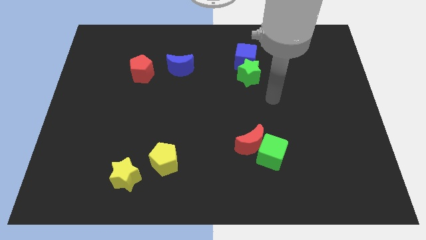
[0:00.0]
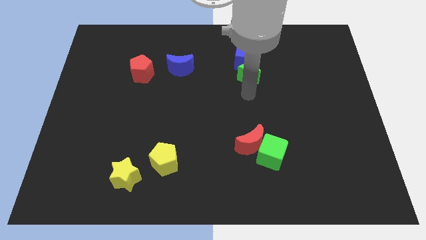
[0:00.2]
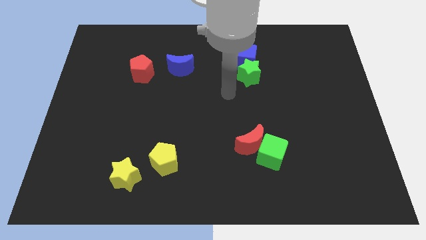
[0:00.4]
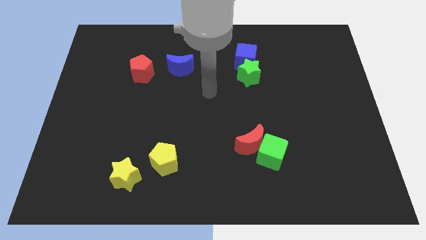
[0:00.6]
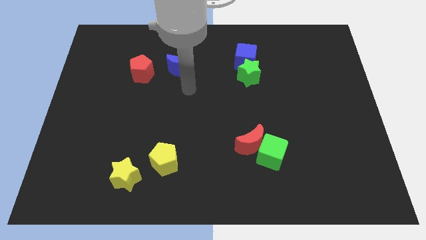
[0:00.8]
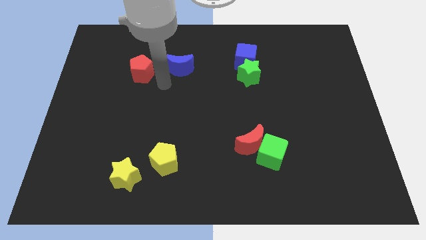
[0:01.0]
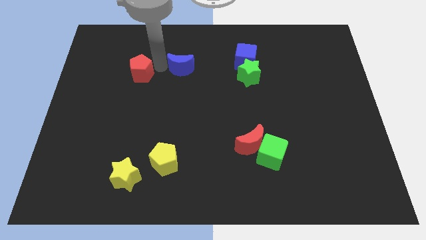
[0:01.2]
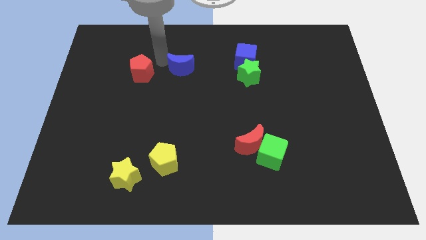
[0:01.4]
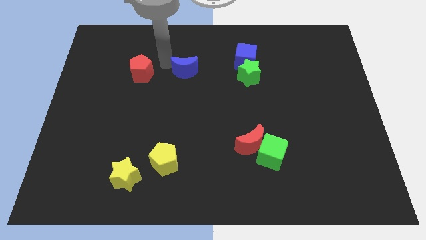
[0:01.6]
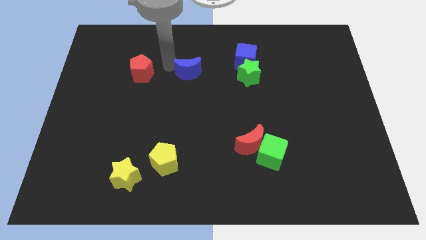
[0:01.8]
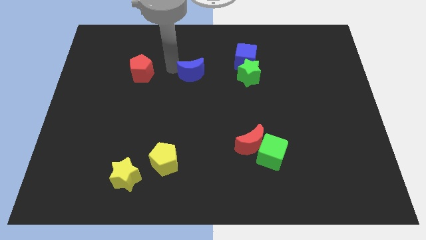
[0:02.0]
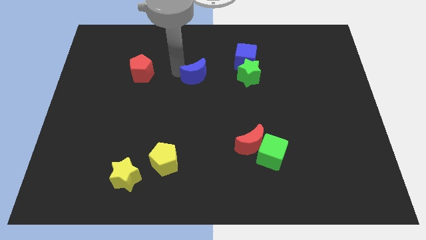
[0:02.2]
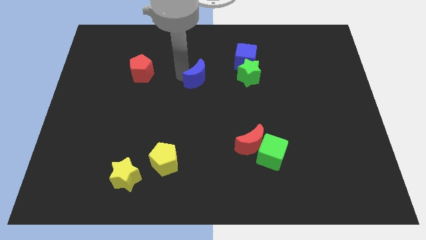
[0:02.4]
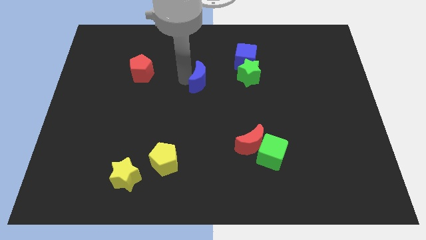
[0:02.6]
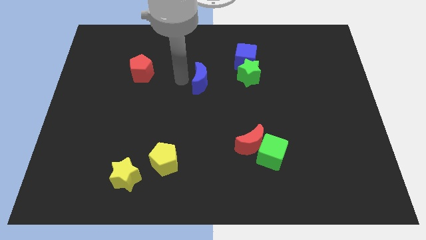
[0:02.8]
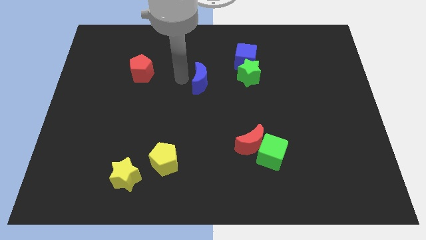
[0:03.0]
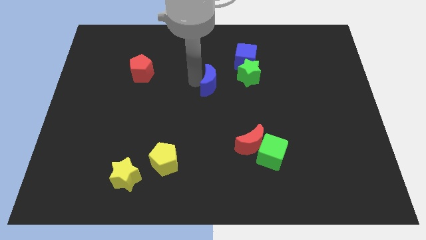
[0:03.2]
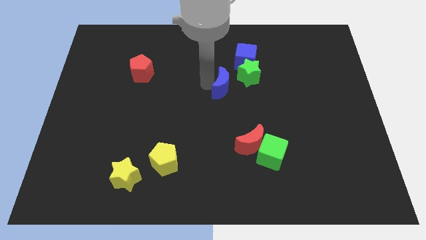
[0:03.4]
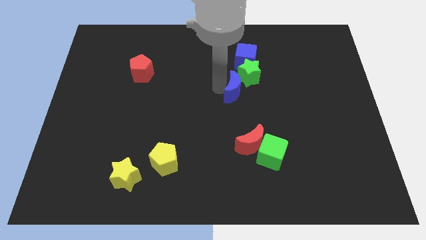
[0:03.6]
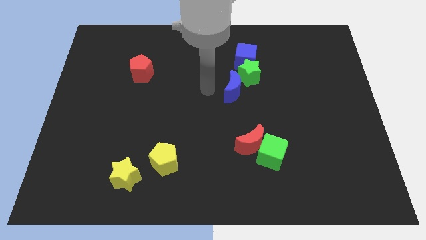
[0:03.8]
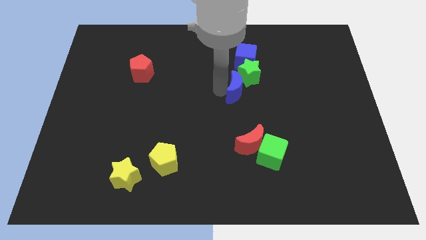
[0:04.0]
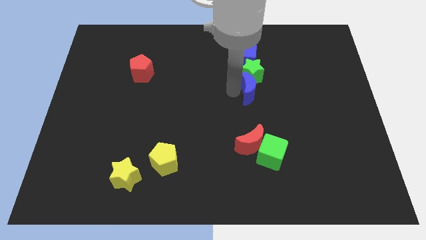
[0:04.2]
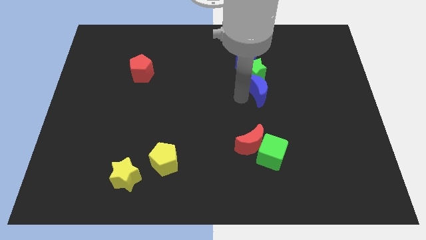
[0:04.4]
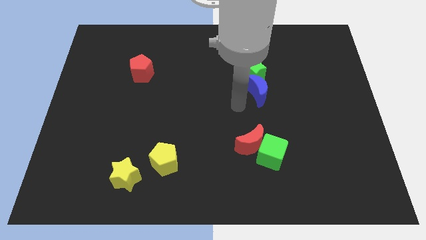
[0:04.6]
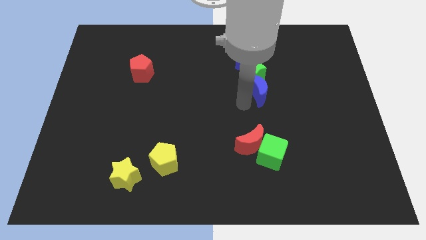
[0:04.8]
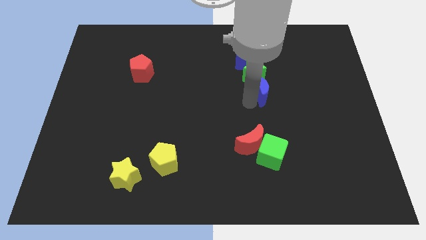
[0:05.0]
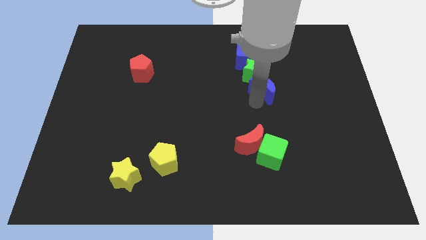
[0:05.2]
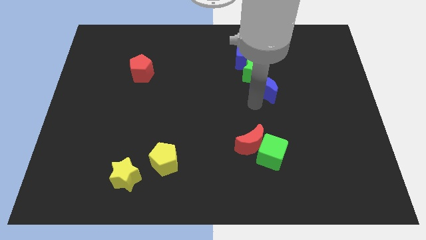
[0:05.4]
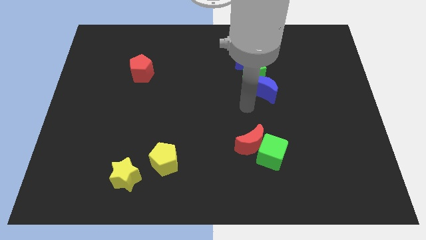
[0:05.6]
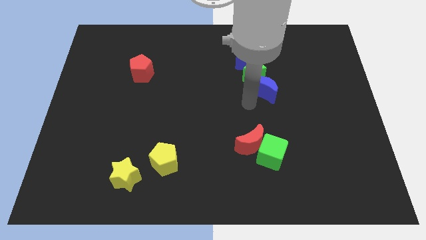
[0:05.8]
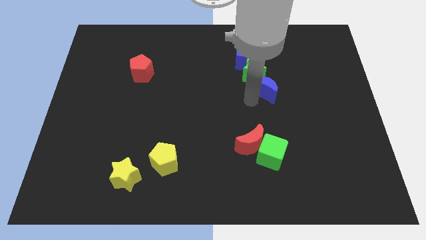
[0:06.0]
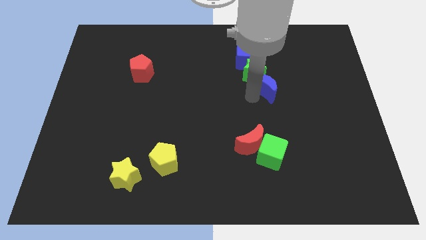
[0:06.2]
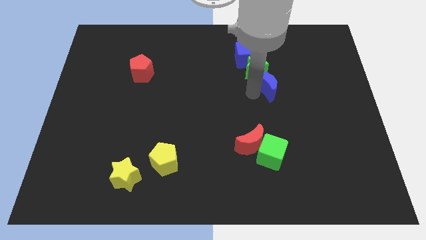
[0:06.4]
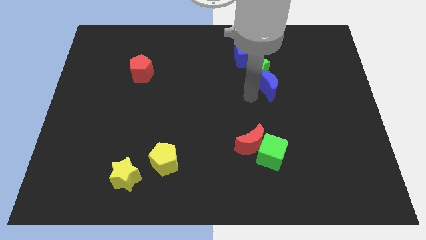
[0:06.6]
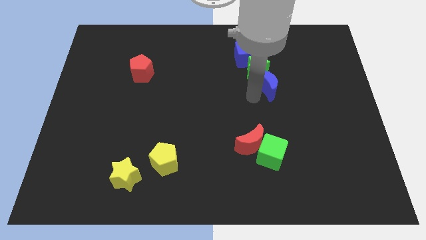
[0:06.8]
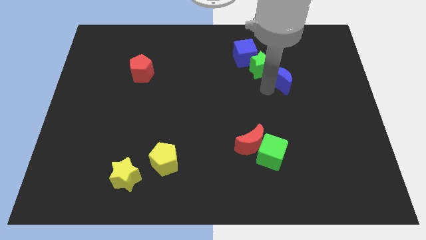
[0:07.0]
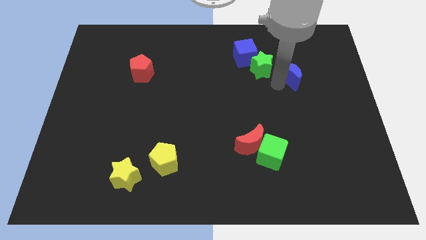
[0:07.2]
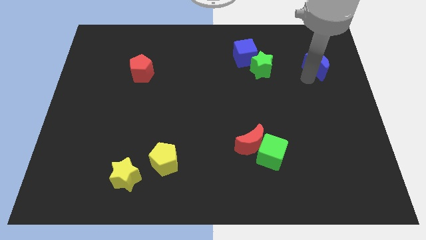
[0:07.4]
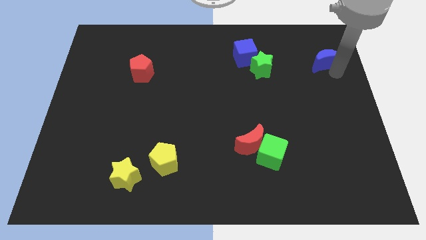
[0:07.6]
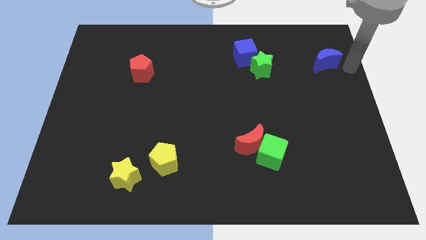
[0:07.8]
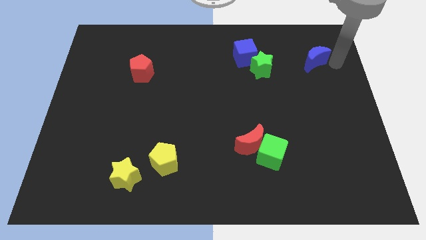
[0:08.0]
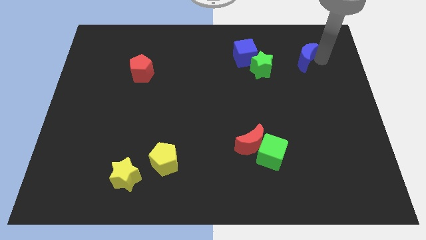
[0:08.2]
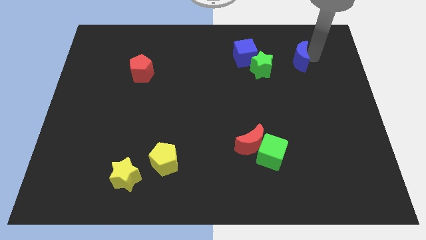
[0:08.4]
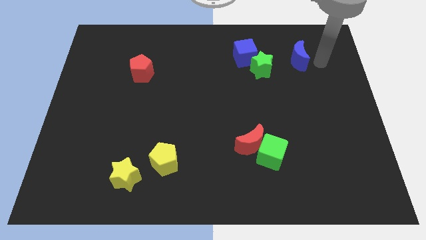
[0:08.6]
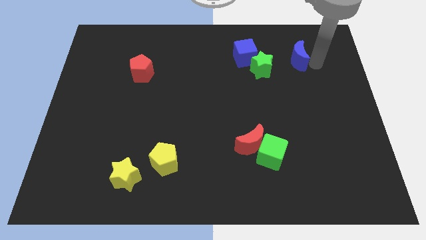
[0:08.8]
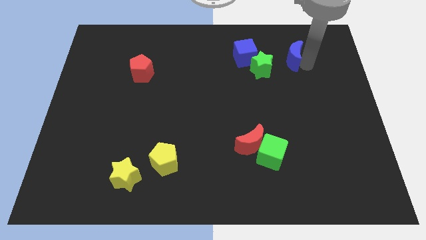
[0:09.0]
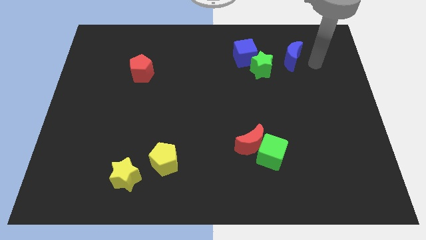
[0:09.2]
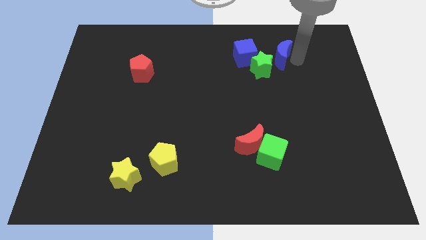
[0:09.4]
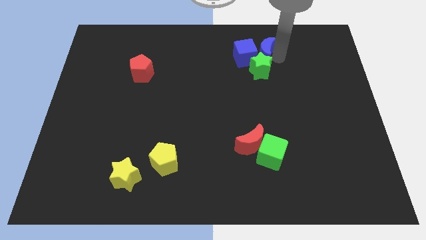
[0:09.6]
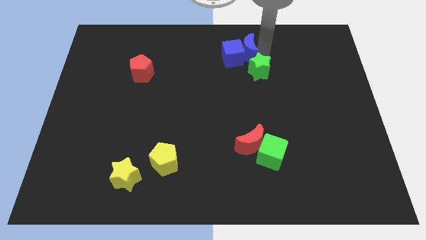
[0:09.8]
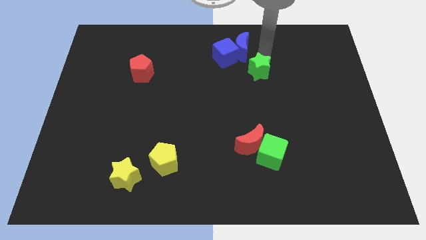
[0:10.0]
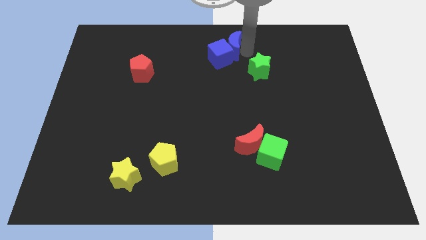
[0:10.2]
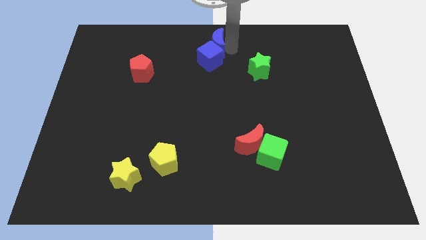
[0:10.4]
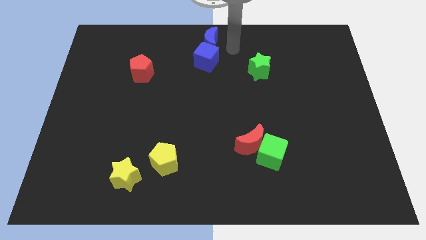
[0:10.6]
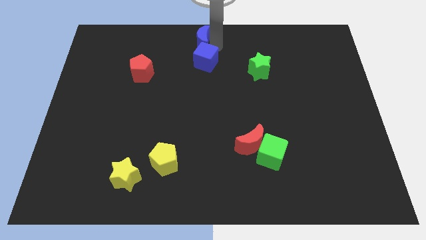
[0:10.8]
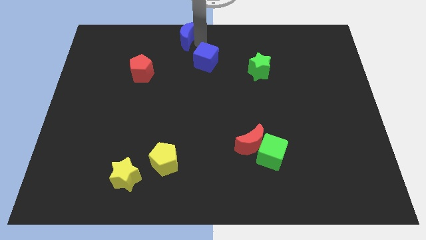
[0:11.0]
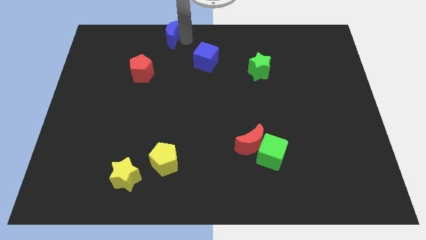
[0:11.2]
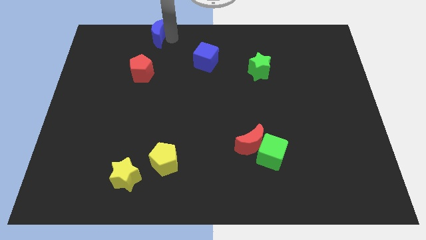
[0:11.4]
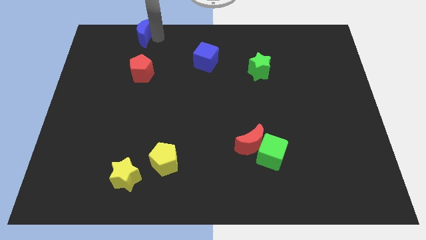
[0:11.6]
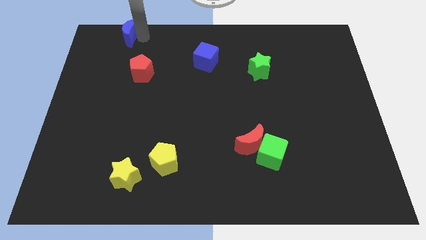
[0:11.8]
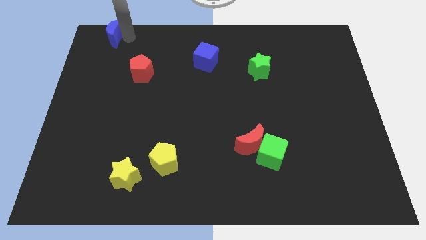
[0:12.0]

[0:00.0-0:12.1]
put the blue moon to the top left corner

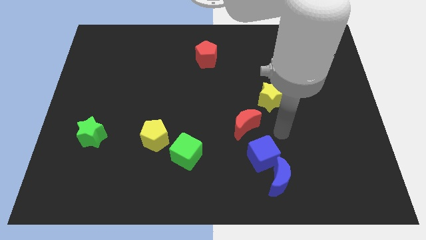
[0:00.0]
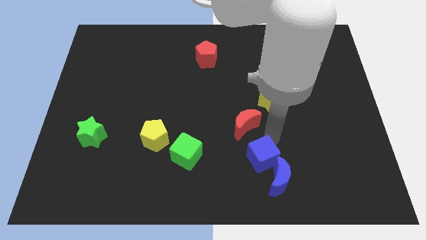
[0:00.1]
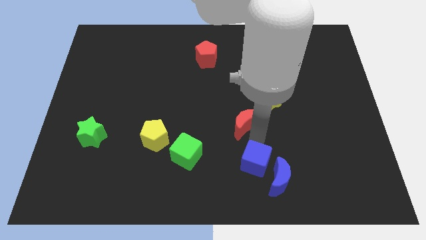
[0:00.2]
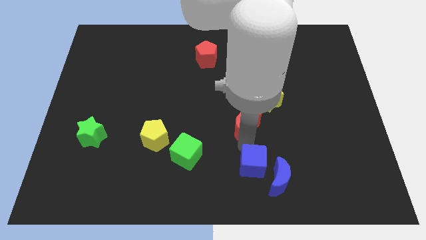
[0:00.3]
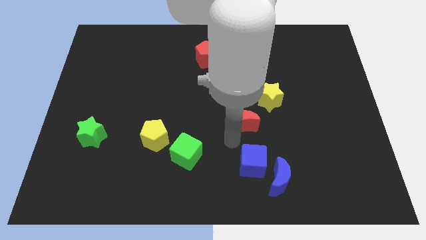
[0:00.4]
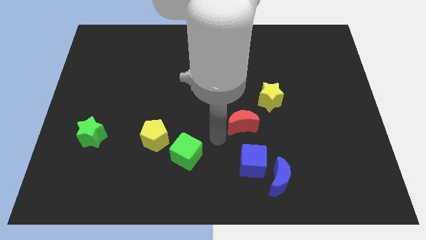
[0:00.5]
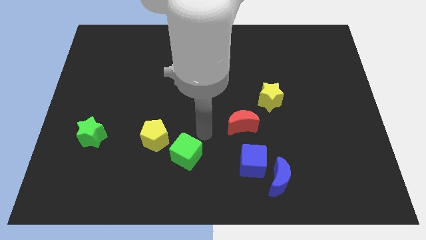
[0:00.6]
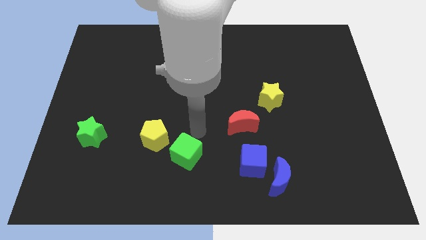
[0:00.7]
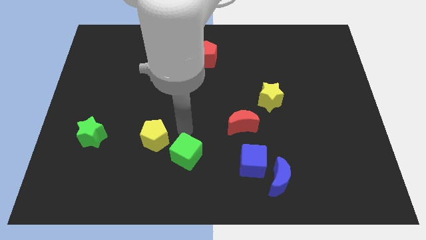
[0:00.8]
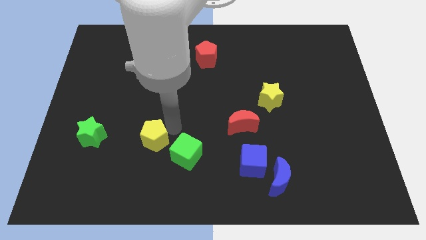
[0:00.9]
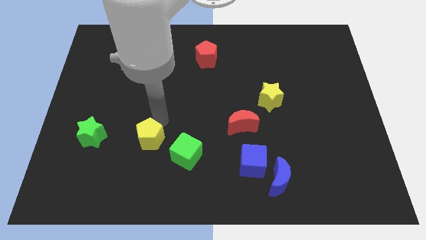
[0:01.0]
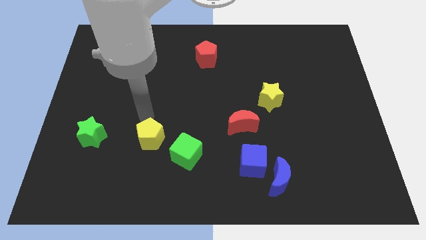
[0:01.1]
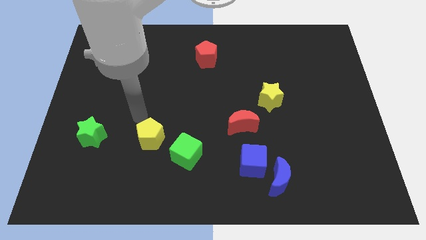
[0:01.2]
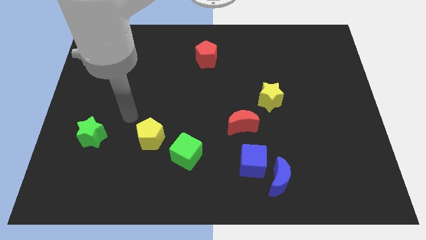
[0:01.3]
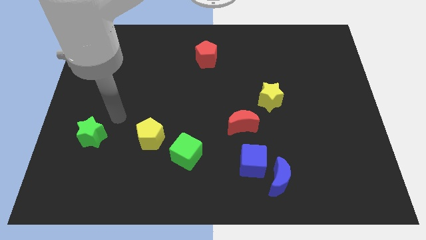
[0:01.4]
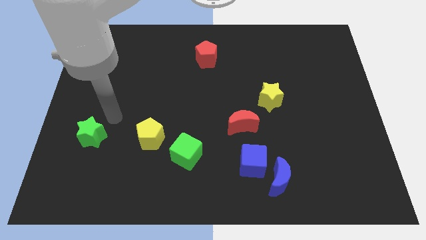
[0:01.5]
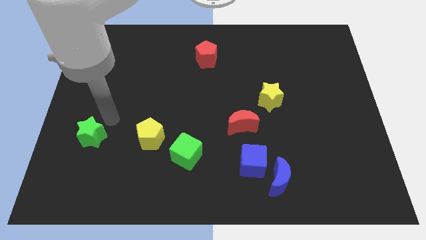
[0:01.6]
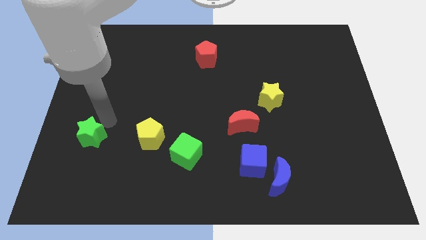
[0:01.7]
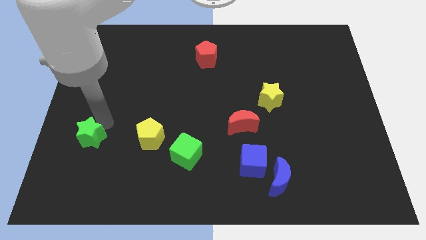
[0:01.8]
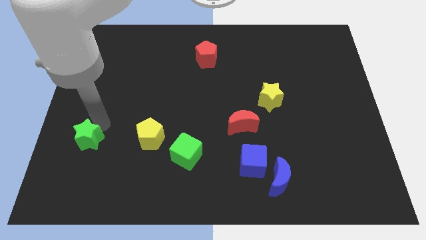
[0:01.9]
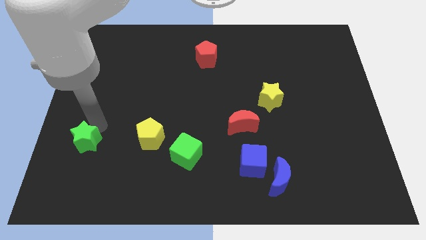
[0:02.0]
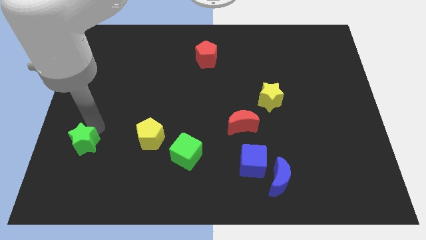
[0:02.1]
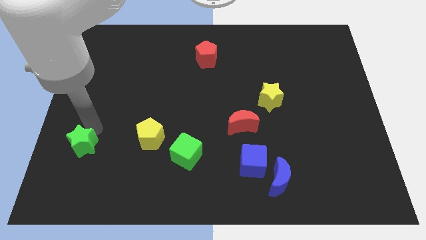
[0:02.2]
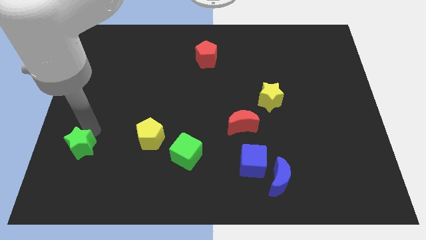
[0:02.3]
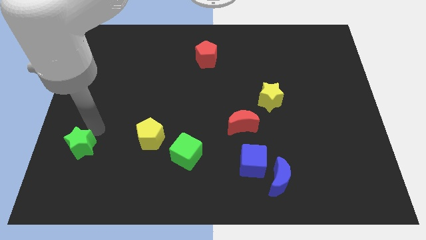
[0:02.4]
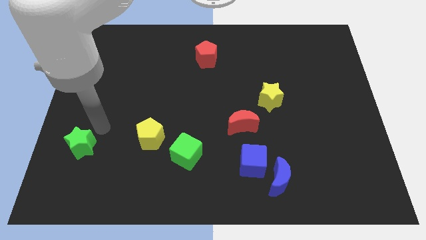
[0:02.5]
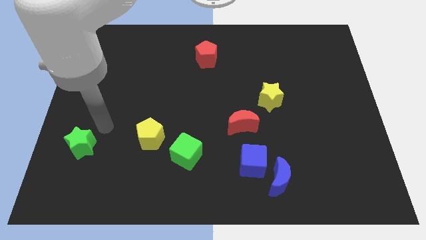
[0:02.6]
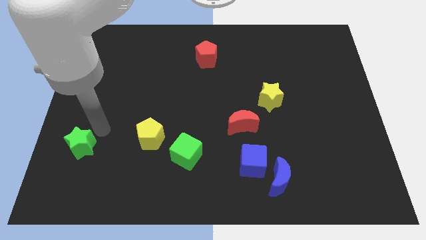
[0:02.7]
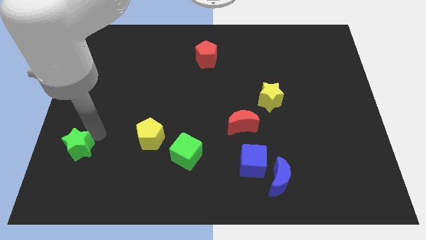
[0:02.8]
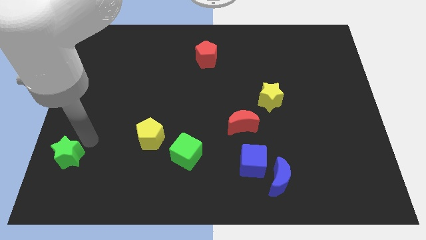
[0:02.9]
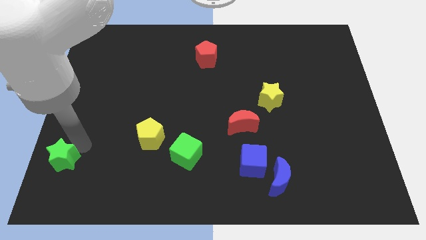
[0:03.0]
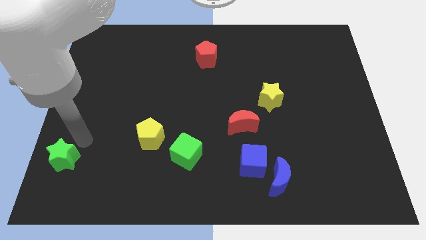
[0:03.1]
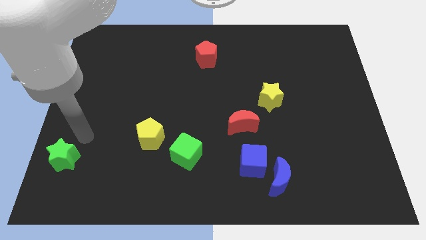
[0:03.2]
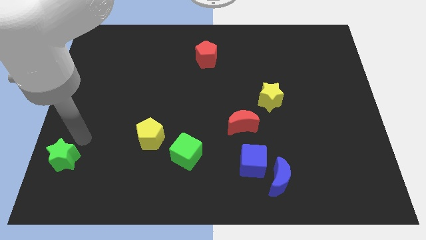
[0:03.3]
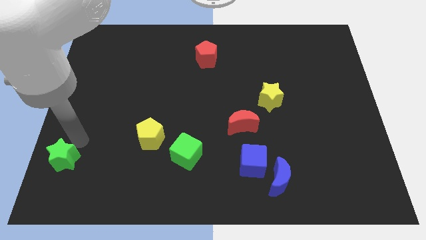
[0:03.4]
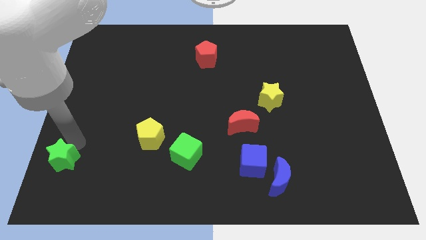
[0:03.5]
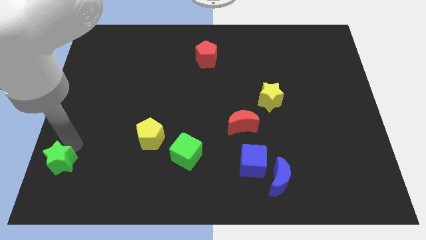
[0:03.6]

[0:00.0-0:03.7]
slide the green star to the lower left corner
